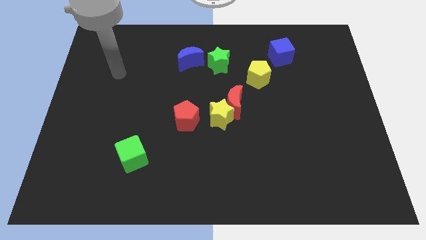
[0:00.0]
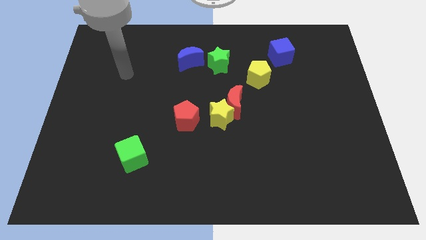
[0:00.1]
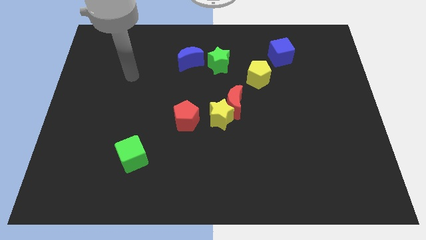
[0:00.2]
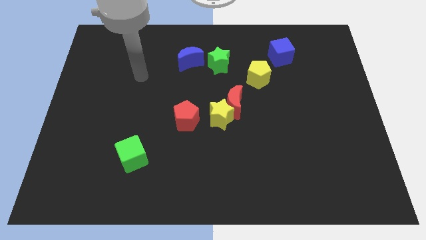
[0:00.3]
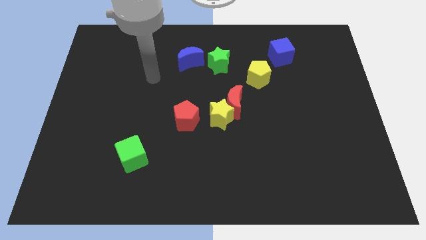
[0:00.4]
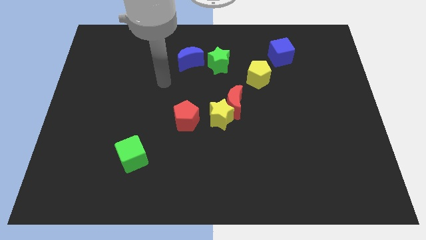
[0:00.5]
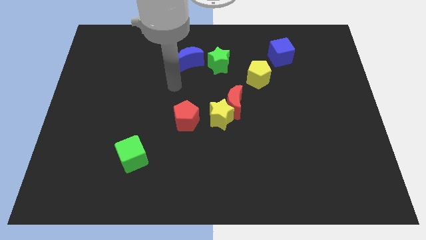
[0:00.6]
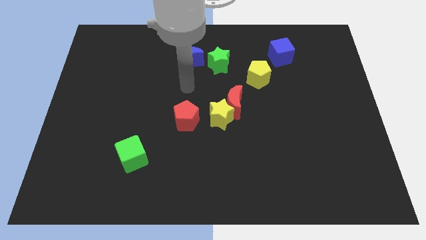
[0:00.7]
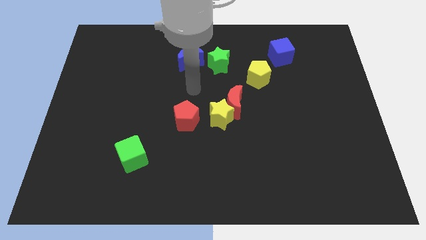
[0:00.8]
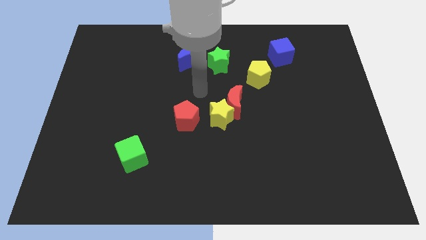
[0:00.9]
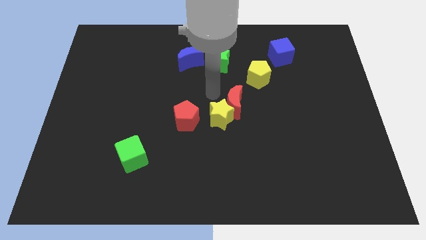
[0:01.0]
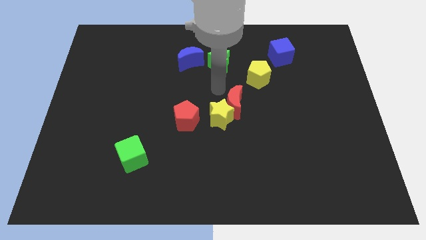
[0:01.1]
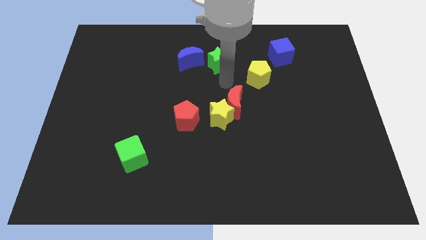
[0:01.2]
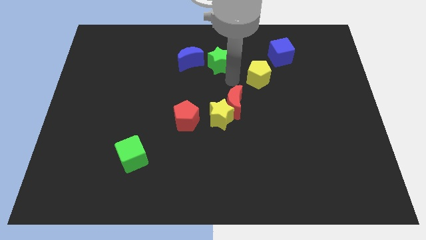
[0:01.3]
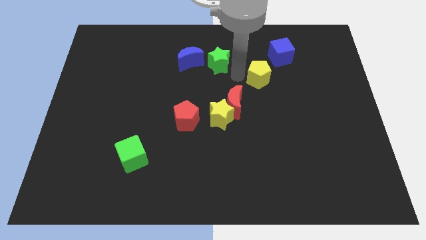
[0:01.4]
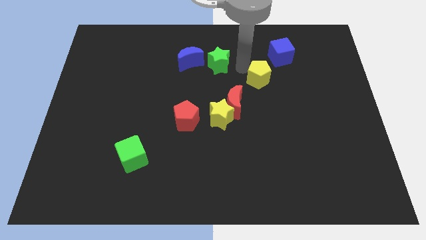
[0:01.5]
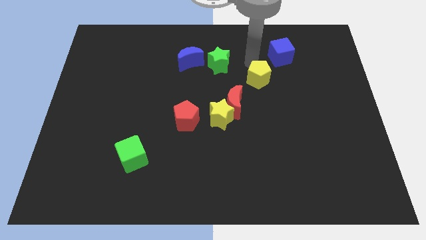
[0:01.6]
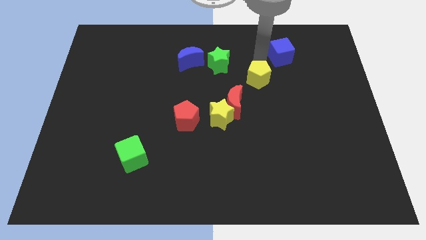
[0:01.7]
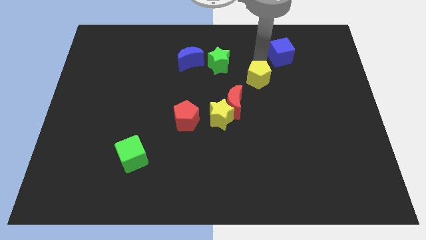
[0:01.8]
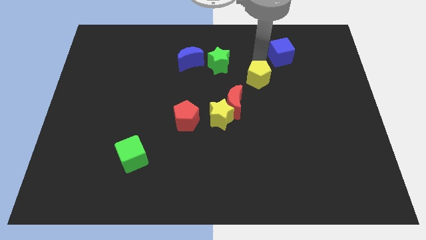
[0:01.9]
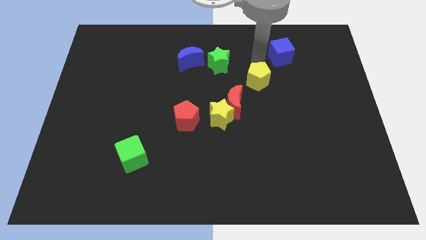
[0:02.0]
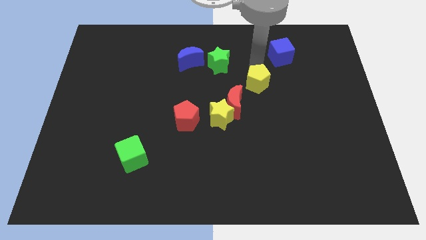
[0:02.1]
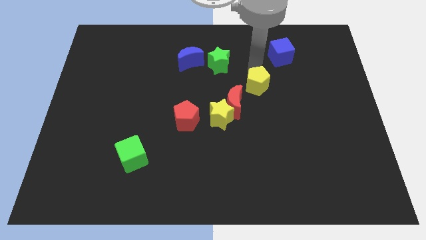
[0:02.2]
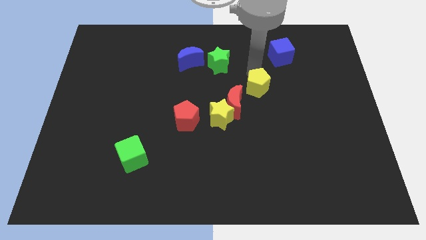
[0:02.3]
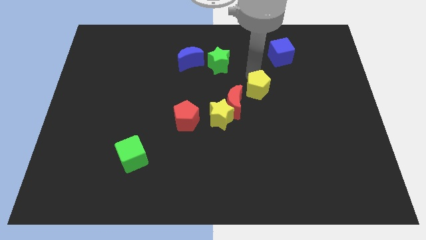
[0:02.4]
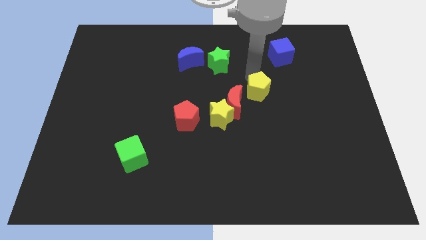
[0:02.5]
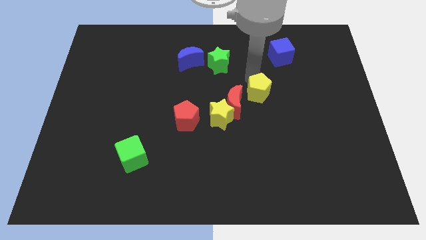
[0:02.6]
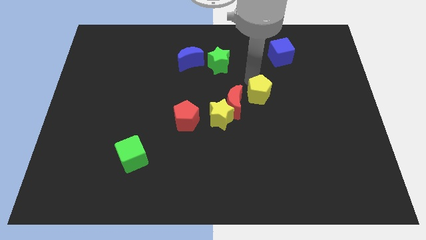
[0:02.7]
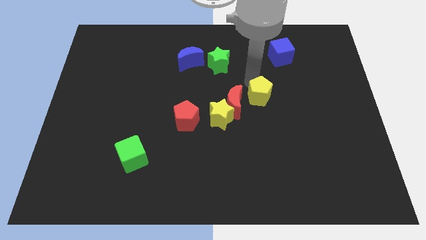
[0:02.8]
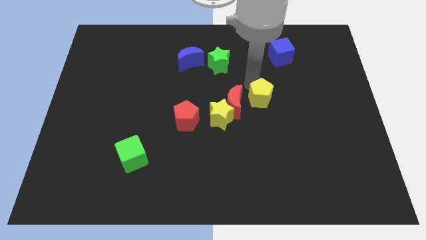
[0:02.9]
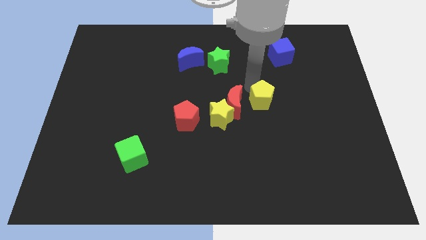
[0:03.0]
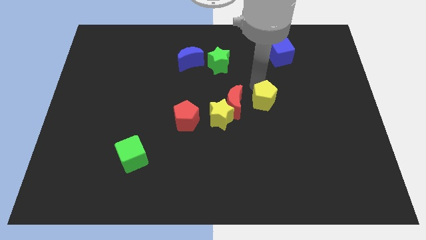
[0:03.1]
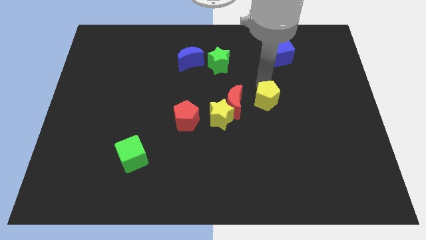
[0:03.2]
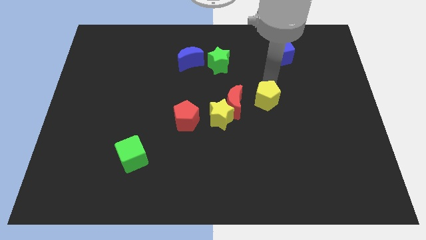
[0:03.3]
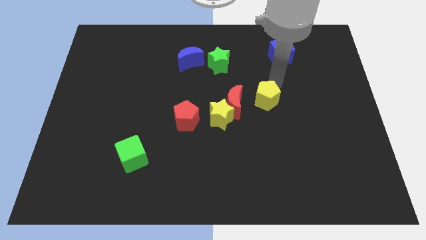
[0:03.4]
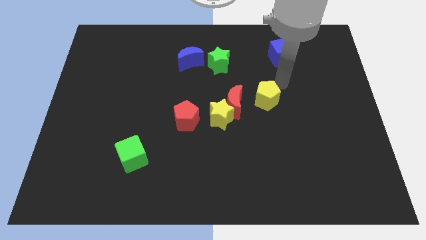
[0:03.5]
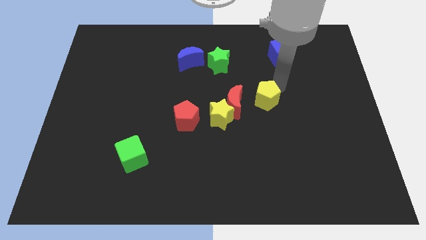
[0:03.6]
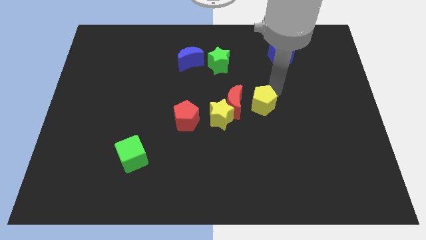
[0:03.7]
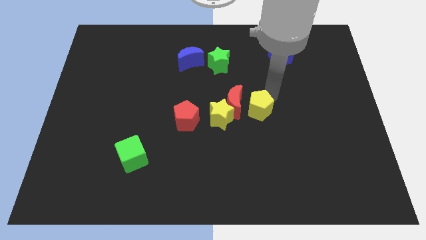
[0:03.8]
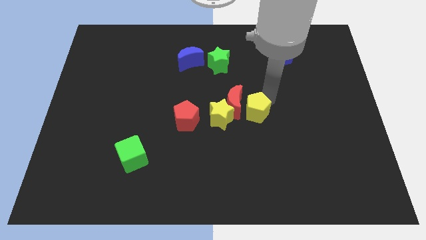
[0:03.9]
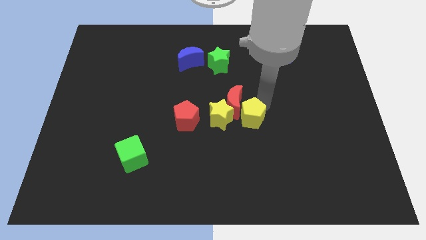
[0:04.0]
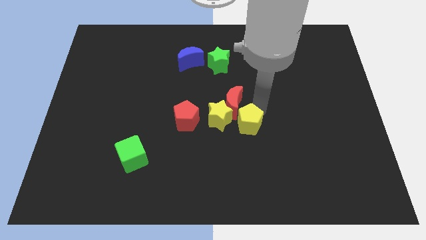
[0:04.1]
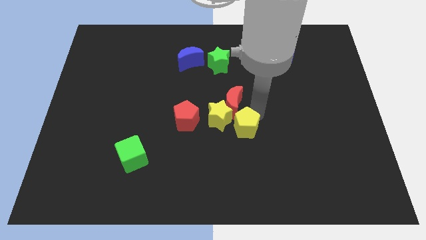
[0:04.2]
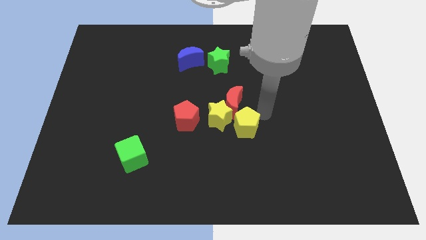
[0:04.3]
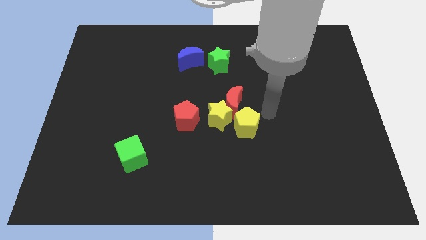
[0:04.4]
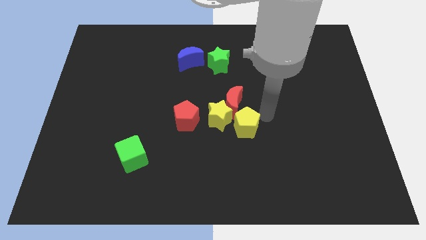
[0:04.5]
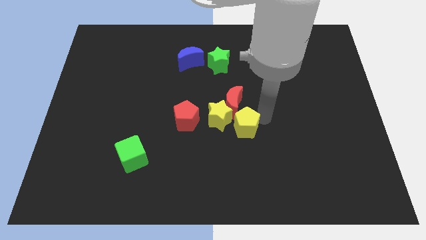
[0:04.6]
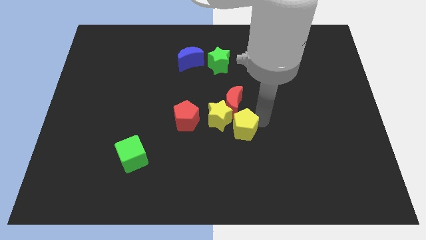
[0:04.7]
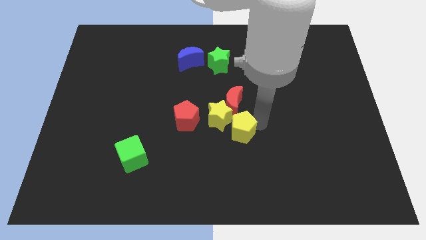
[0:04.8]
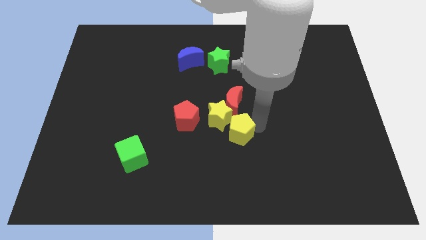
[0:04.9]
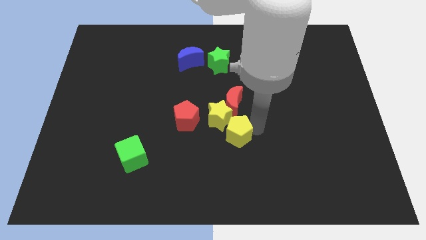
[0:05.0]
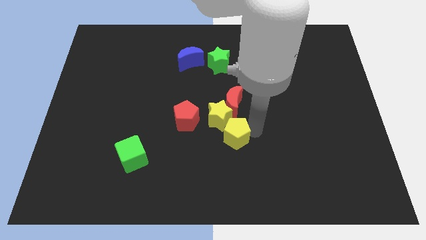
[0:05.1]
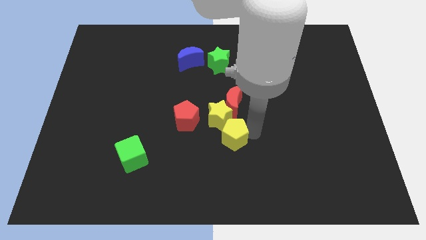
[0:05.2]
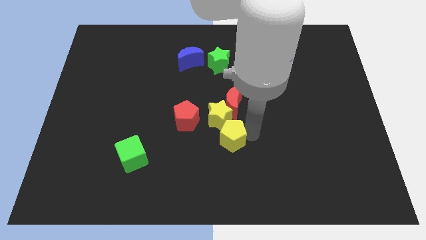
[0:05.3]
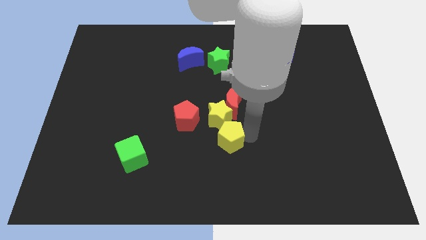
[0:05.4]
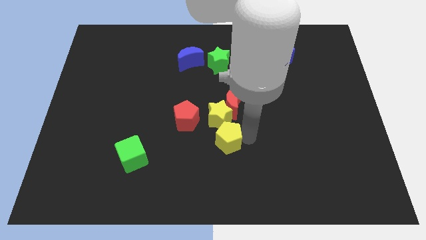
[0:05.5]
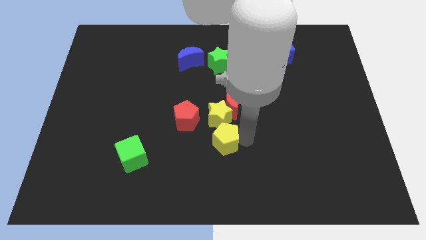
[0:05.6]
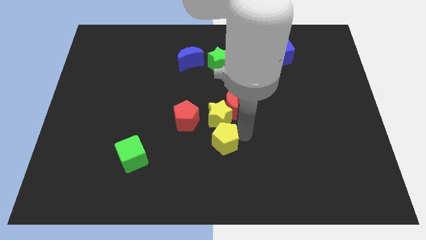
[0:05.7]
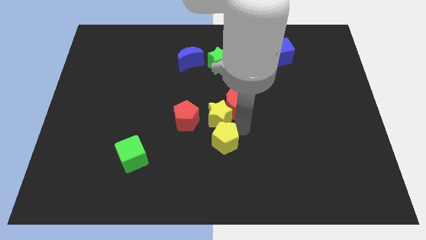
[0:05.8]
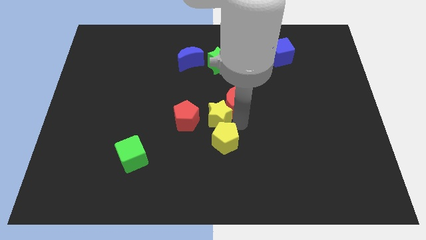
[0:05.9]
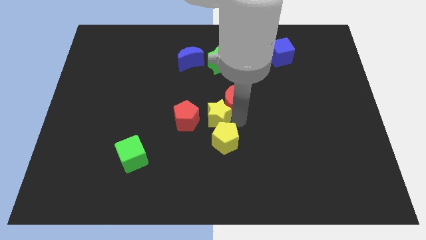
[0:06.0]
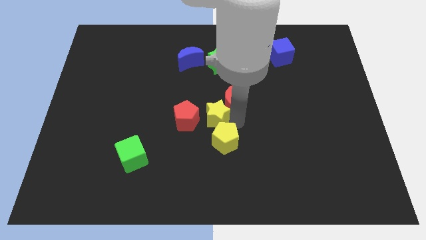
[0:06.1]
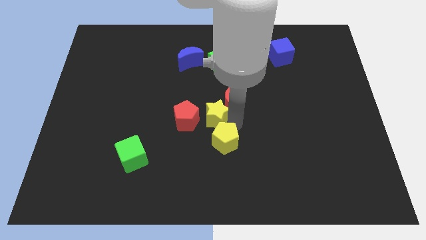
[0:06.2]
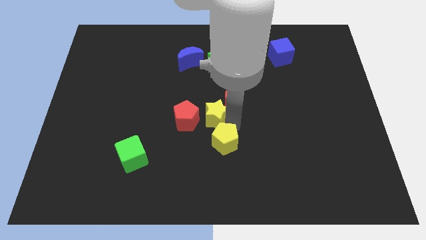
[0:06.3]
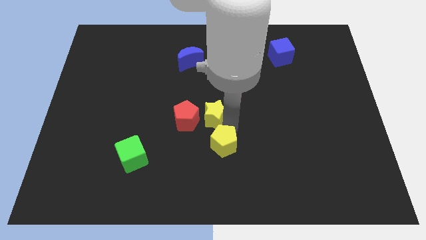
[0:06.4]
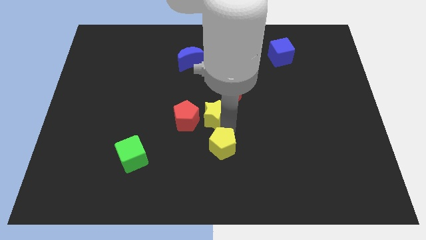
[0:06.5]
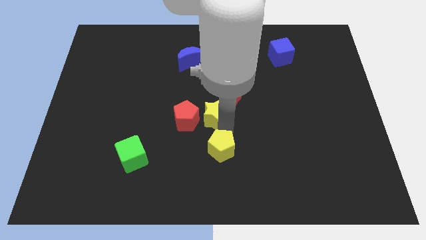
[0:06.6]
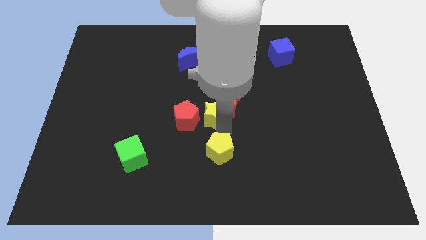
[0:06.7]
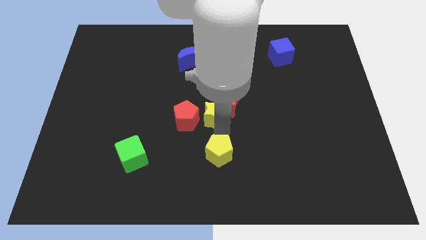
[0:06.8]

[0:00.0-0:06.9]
put the yellow pentagon to the bottom side
